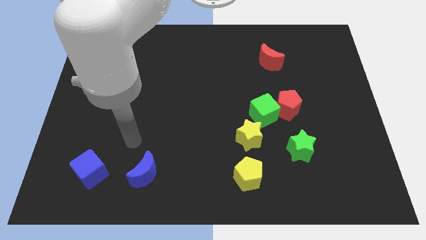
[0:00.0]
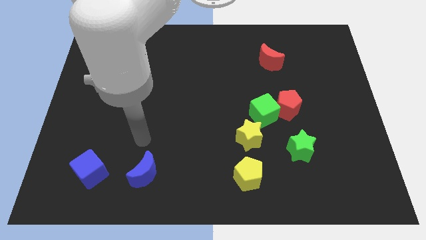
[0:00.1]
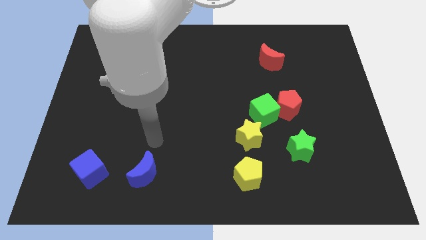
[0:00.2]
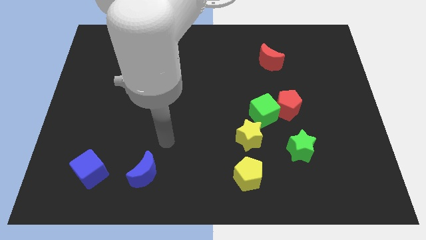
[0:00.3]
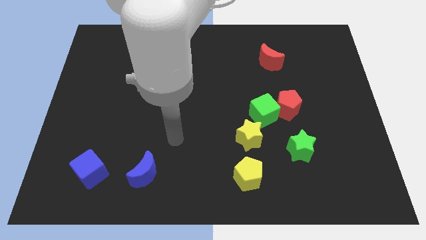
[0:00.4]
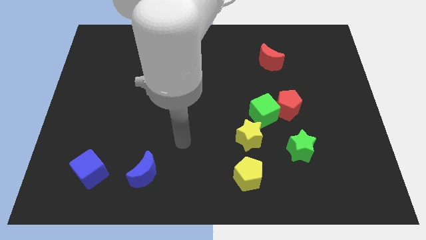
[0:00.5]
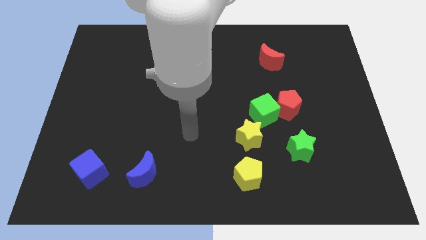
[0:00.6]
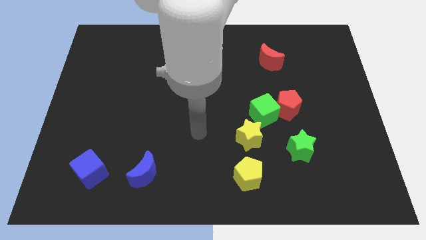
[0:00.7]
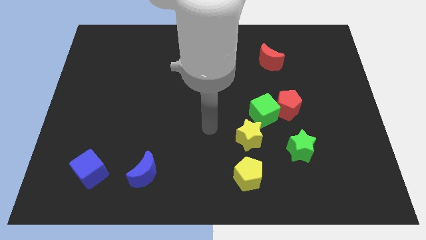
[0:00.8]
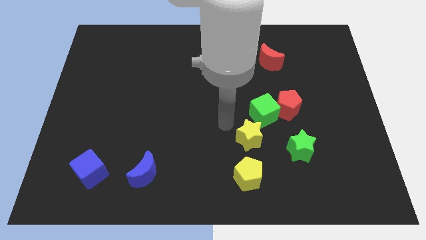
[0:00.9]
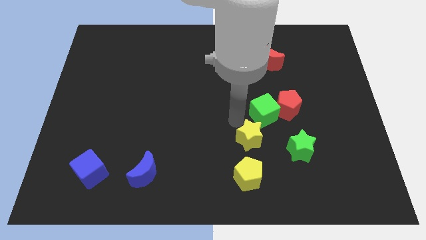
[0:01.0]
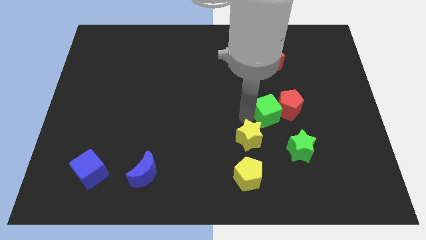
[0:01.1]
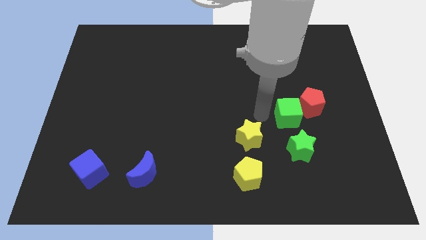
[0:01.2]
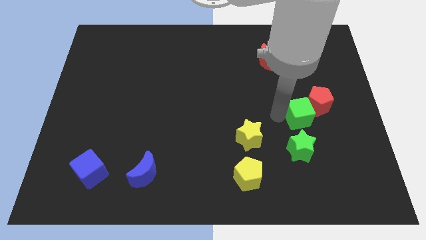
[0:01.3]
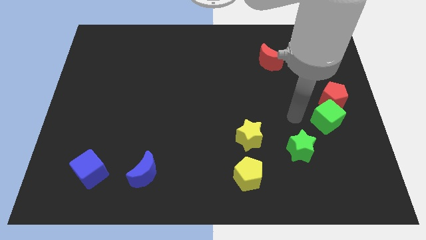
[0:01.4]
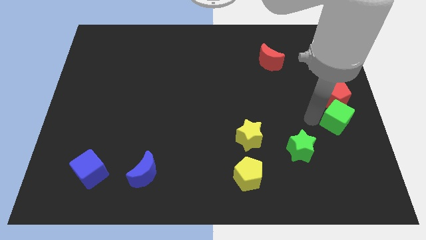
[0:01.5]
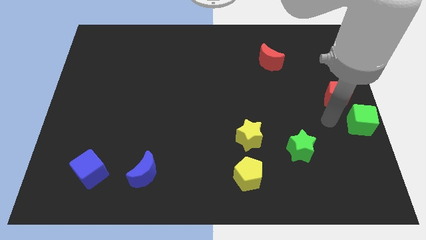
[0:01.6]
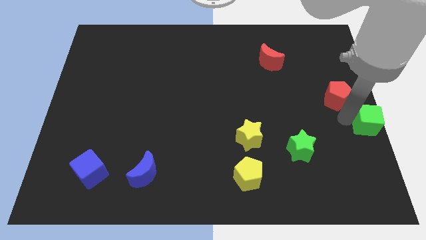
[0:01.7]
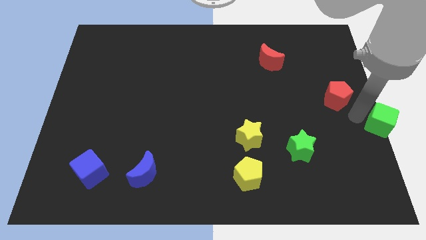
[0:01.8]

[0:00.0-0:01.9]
pull the red pentagon apart from the green cube

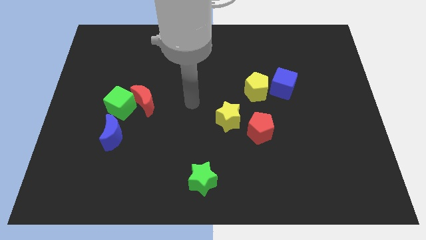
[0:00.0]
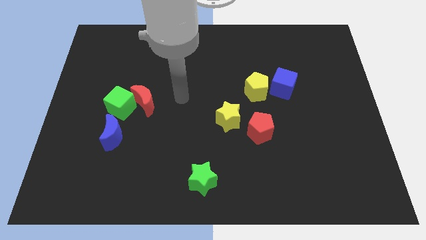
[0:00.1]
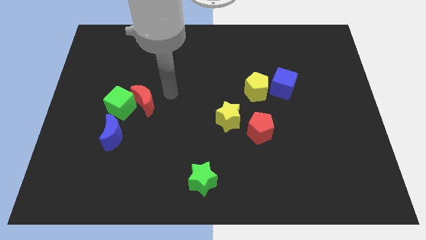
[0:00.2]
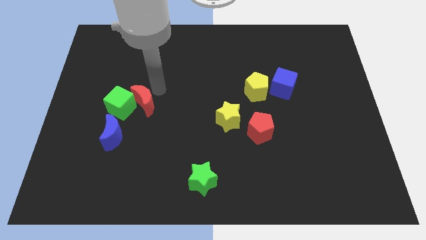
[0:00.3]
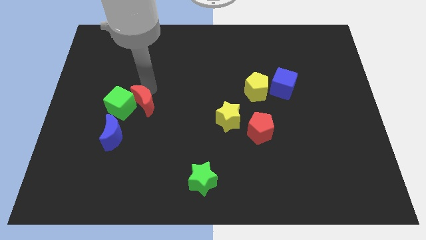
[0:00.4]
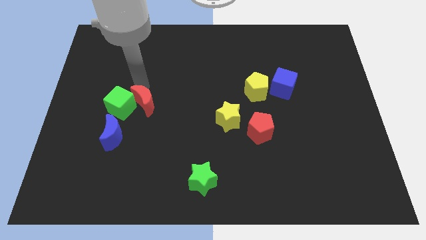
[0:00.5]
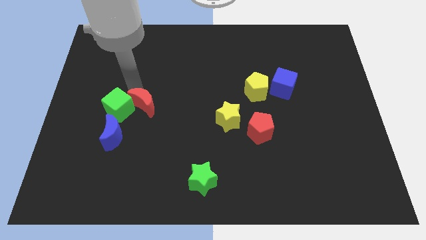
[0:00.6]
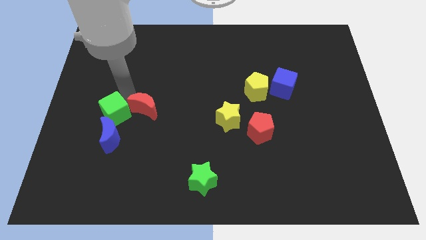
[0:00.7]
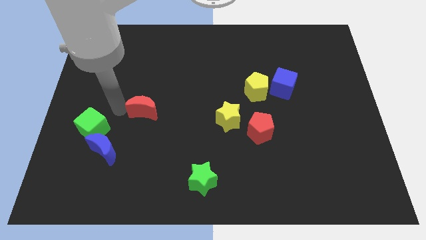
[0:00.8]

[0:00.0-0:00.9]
pull the red moon apart from the green cube

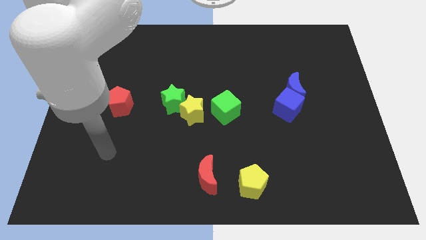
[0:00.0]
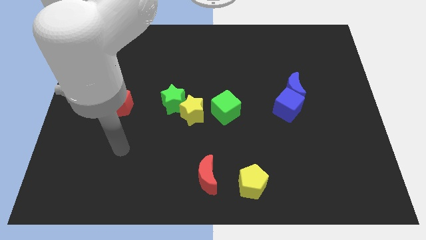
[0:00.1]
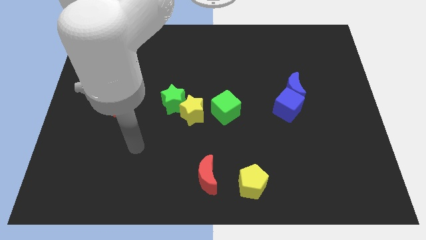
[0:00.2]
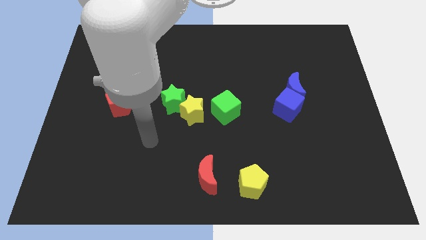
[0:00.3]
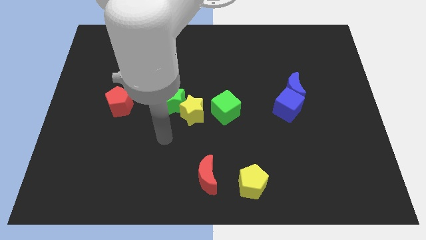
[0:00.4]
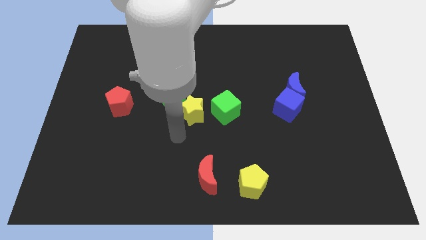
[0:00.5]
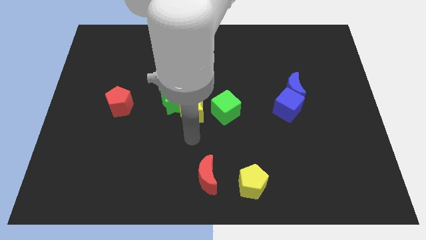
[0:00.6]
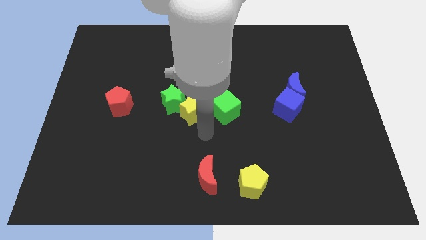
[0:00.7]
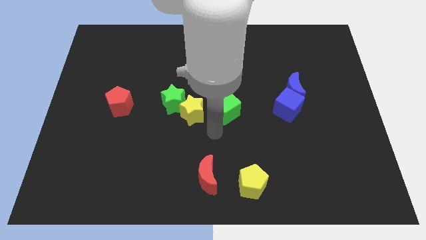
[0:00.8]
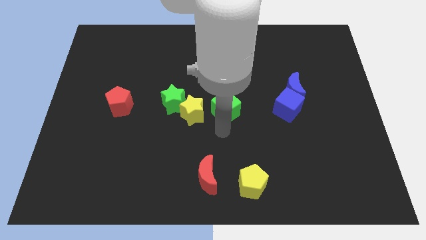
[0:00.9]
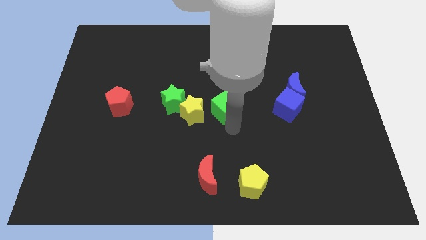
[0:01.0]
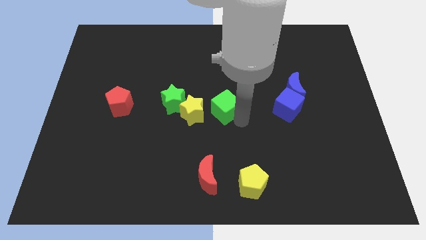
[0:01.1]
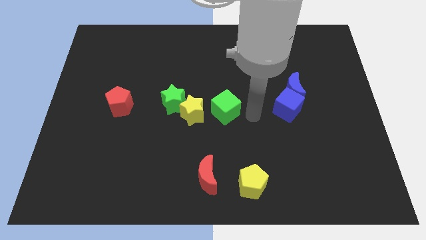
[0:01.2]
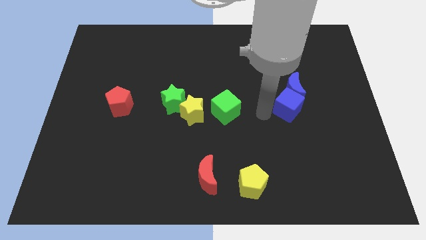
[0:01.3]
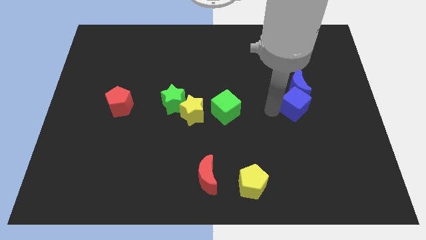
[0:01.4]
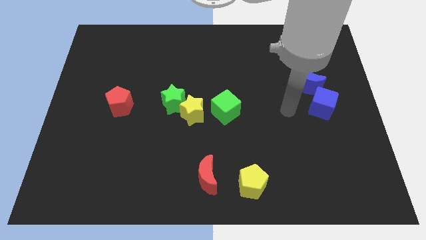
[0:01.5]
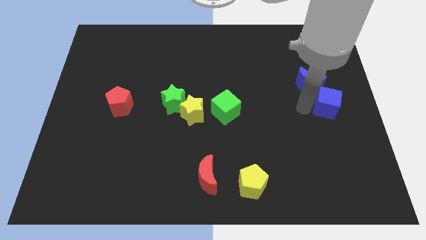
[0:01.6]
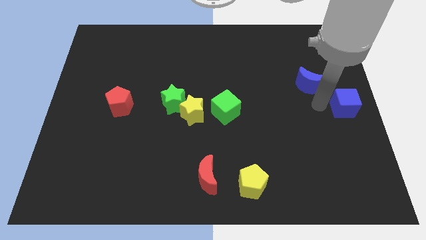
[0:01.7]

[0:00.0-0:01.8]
separate the blue moon from the blue cube

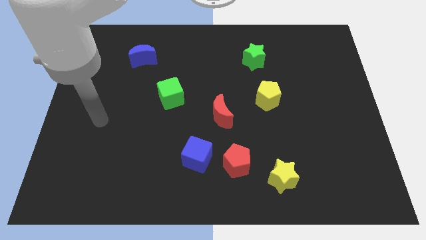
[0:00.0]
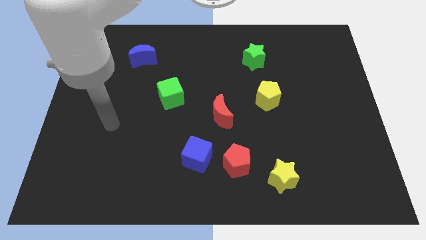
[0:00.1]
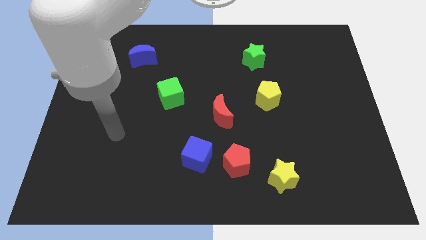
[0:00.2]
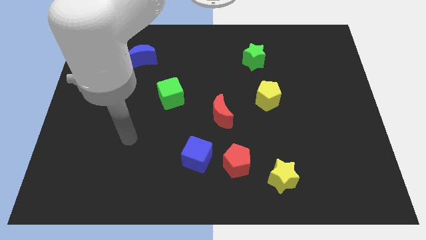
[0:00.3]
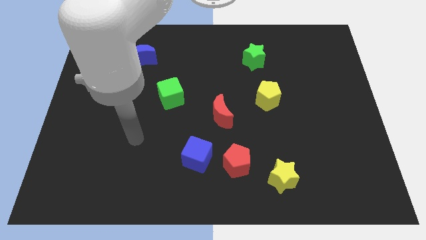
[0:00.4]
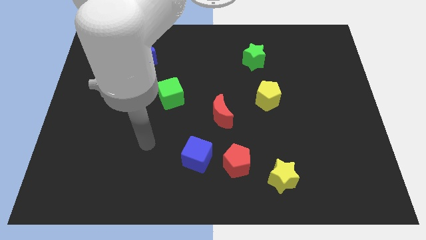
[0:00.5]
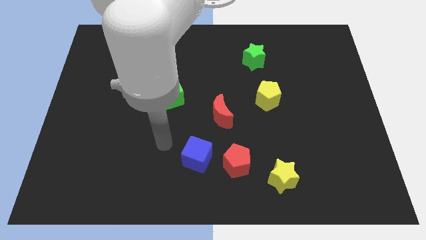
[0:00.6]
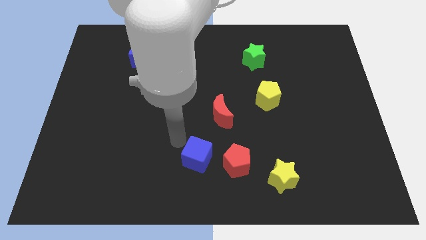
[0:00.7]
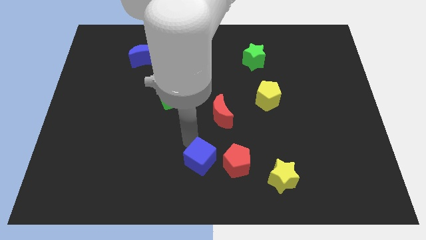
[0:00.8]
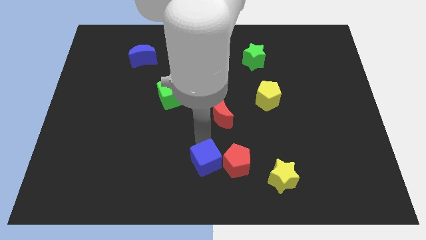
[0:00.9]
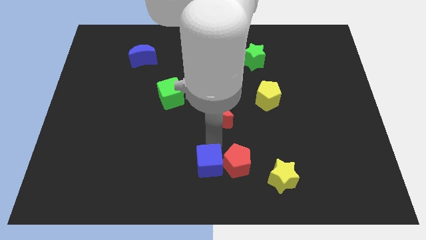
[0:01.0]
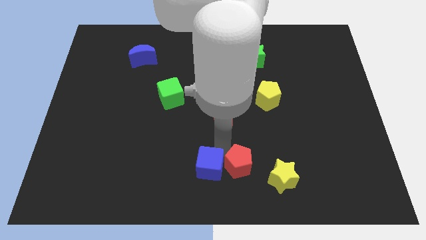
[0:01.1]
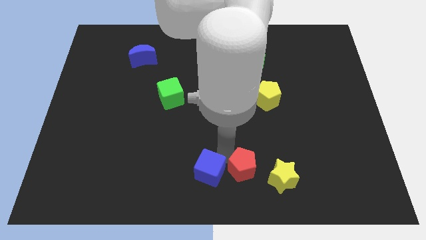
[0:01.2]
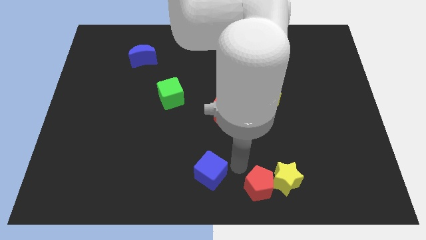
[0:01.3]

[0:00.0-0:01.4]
move the blue cube away from the red pentagon

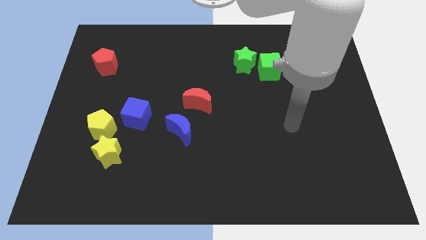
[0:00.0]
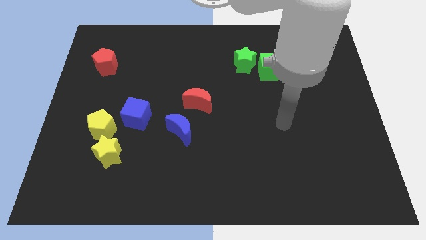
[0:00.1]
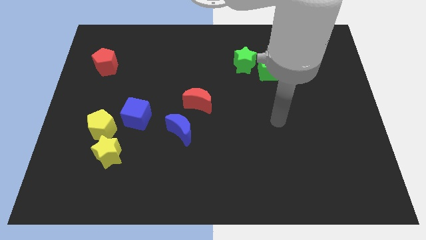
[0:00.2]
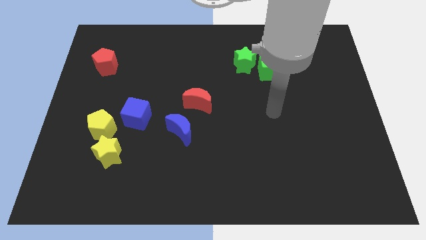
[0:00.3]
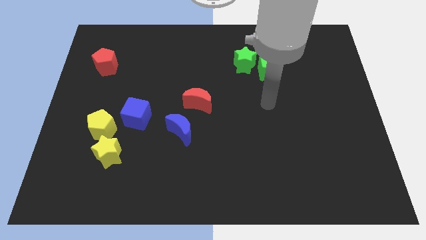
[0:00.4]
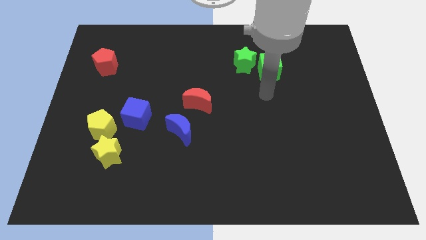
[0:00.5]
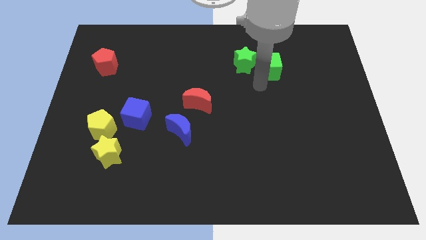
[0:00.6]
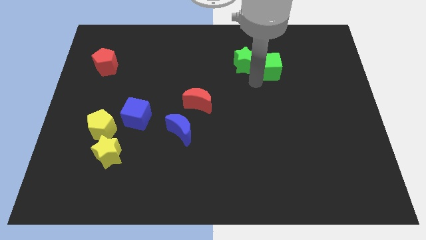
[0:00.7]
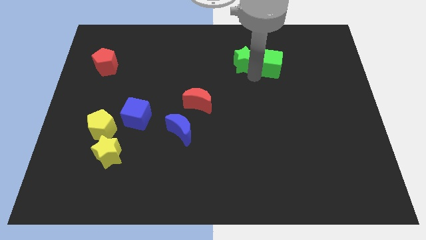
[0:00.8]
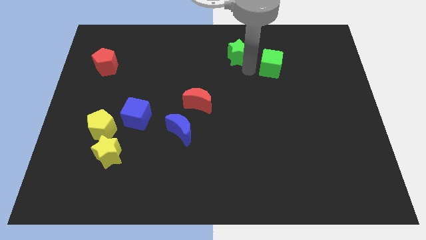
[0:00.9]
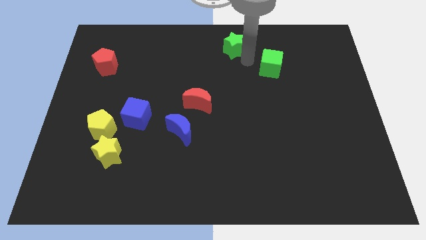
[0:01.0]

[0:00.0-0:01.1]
pull the green cube apart from the green star

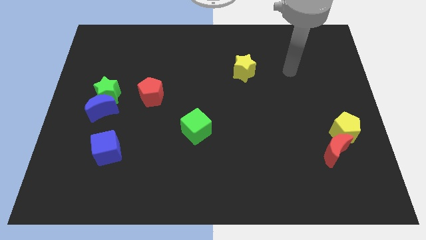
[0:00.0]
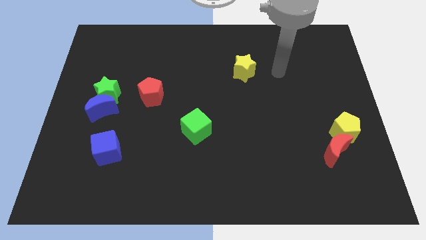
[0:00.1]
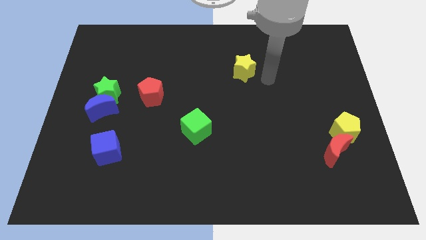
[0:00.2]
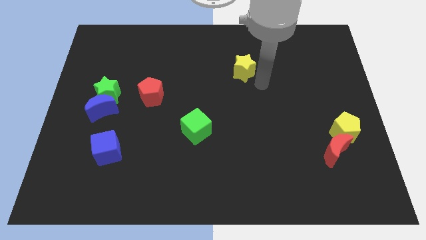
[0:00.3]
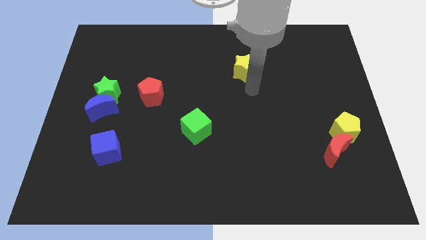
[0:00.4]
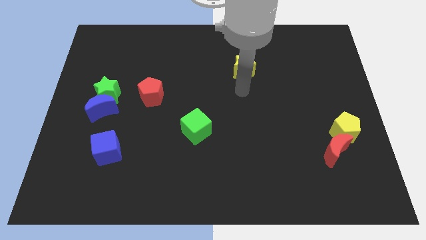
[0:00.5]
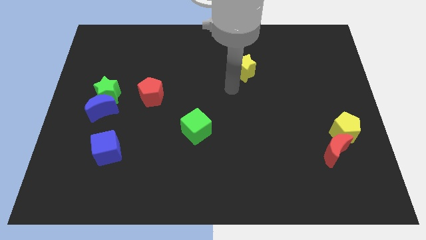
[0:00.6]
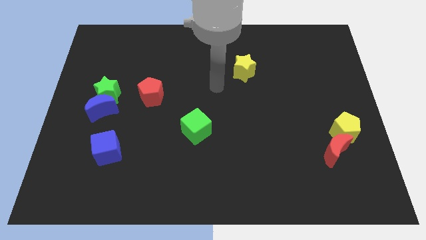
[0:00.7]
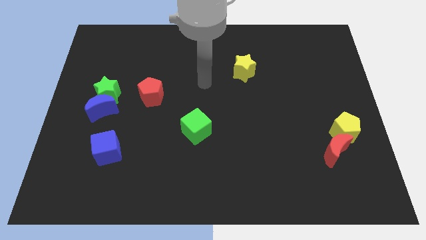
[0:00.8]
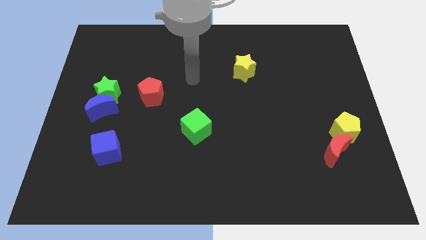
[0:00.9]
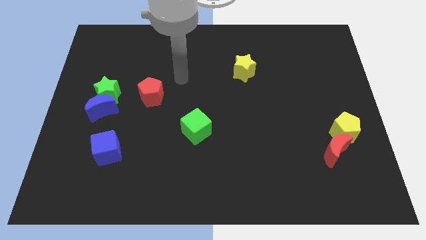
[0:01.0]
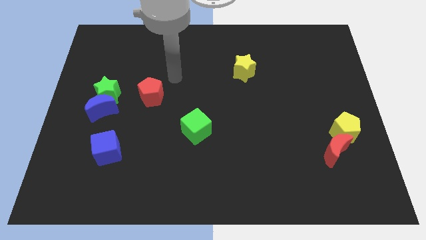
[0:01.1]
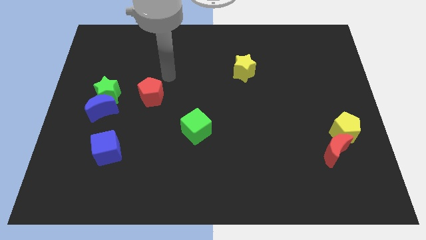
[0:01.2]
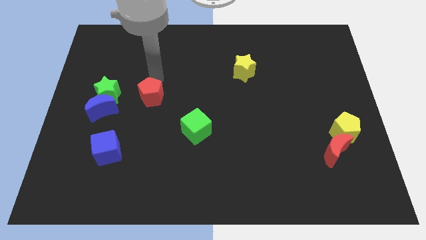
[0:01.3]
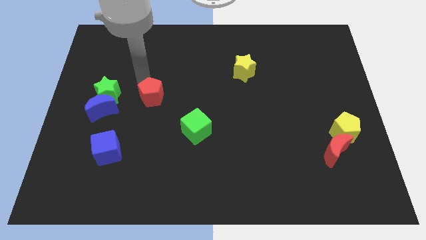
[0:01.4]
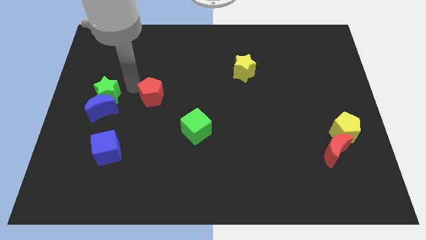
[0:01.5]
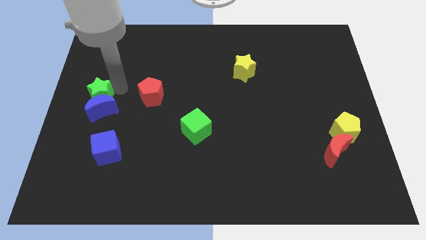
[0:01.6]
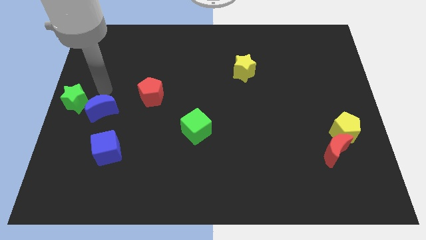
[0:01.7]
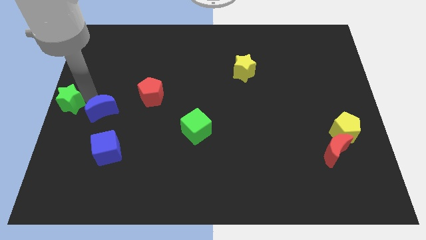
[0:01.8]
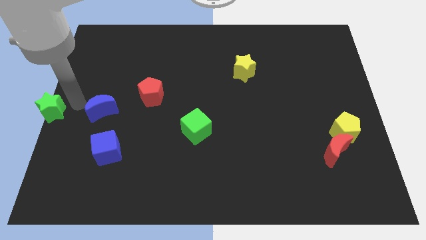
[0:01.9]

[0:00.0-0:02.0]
pull the blue moon apart from the green star
